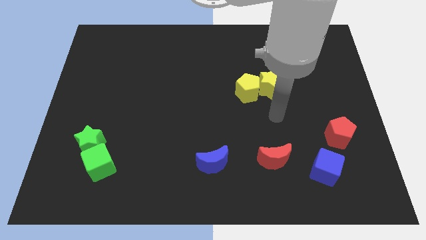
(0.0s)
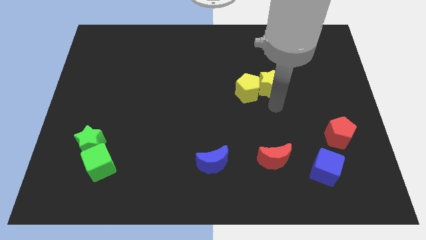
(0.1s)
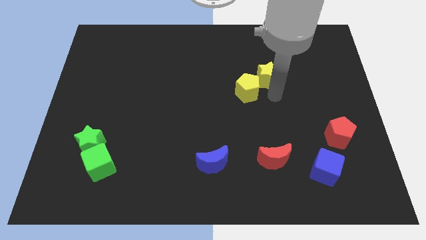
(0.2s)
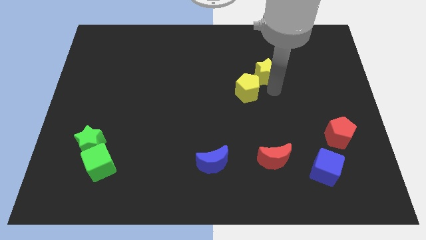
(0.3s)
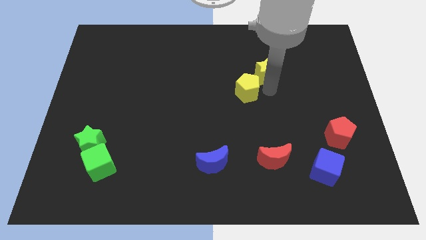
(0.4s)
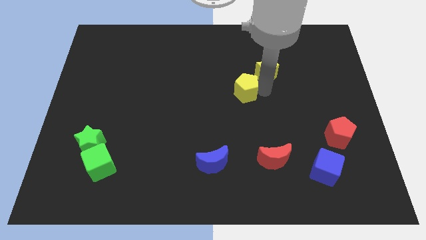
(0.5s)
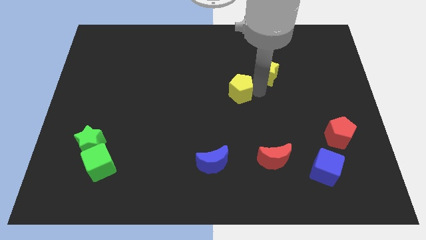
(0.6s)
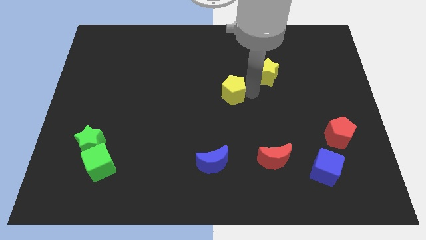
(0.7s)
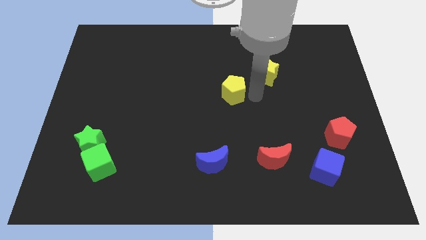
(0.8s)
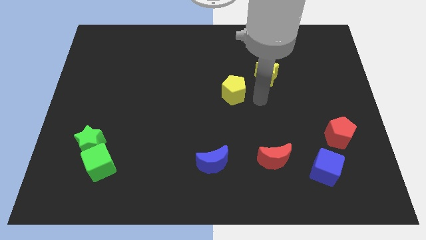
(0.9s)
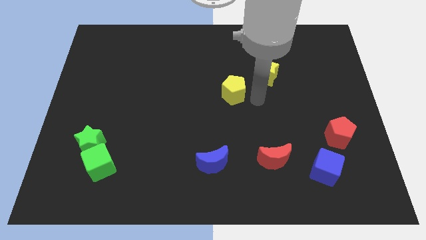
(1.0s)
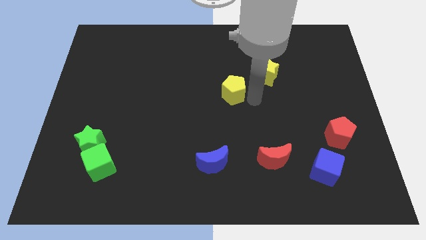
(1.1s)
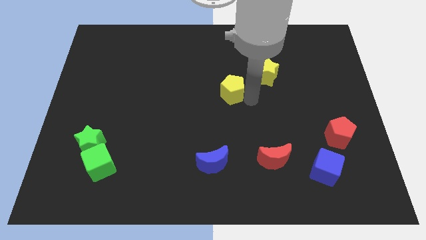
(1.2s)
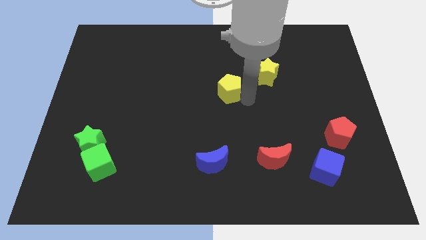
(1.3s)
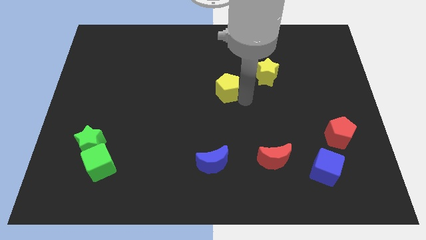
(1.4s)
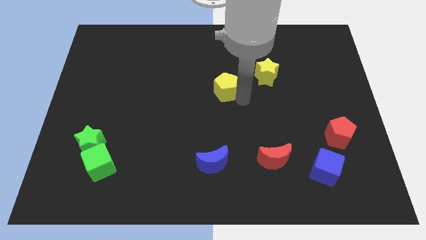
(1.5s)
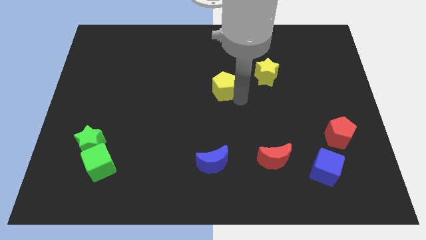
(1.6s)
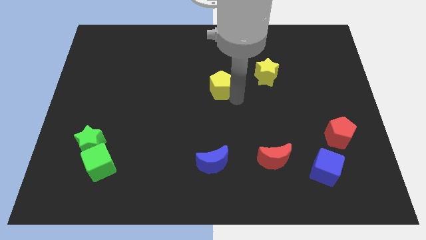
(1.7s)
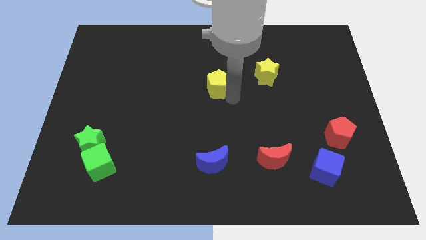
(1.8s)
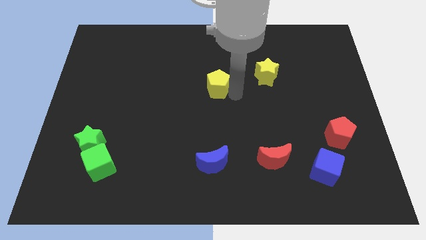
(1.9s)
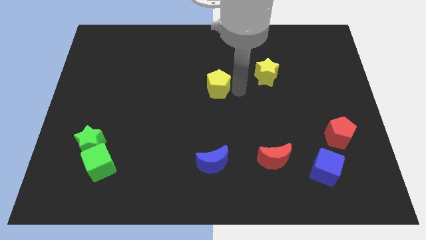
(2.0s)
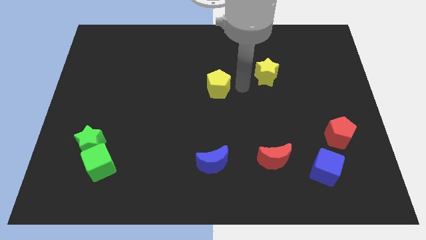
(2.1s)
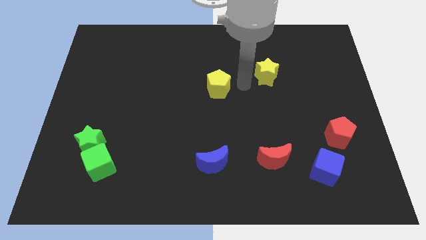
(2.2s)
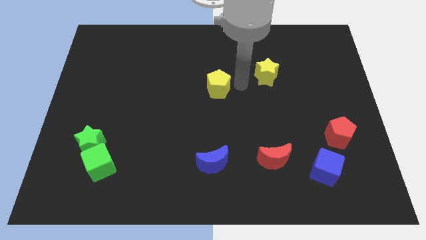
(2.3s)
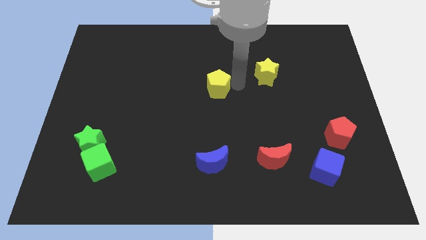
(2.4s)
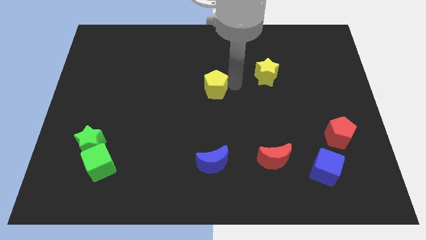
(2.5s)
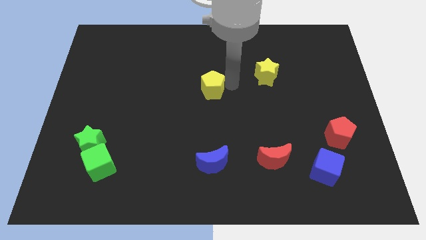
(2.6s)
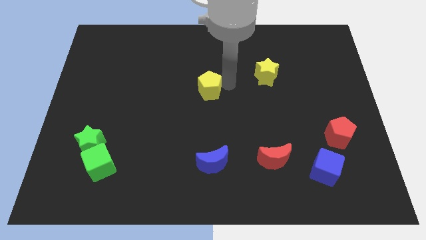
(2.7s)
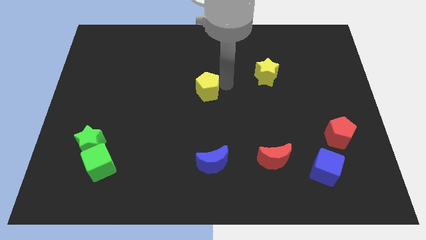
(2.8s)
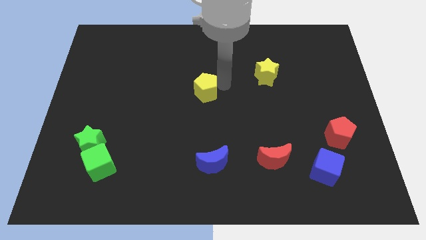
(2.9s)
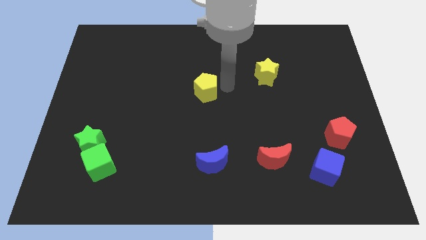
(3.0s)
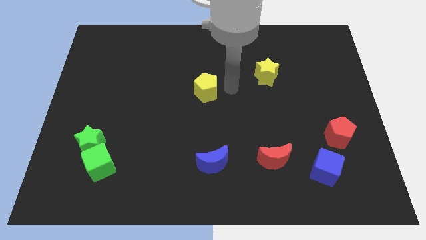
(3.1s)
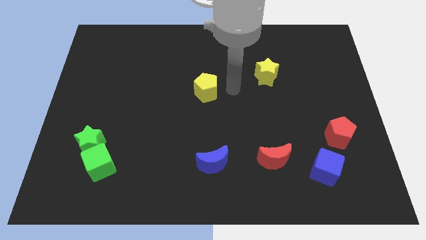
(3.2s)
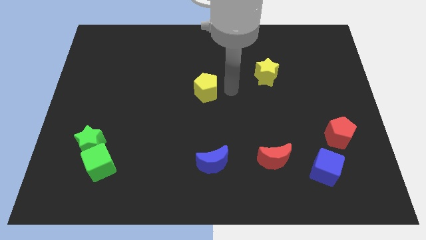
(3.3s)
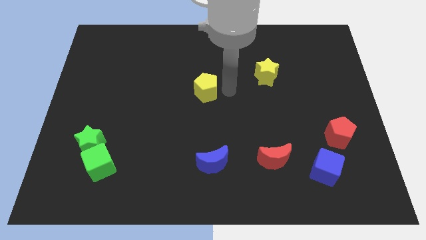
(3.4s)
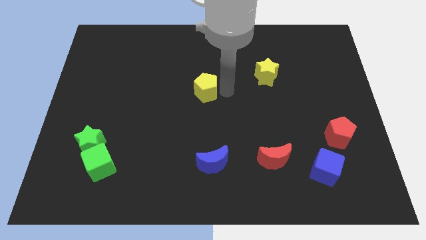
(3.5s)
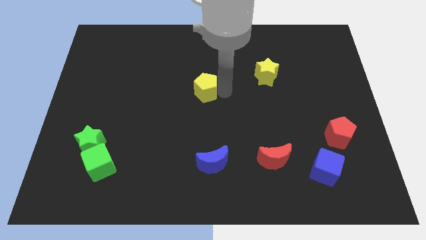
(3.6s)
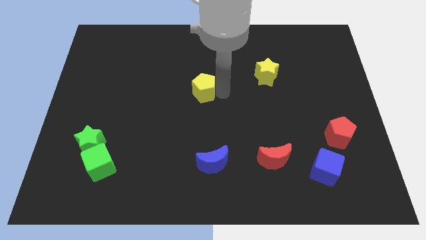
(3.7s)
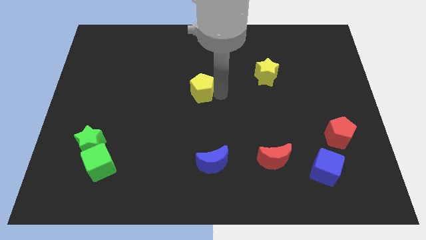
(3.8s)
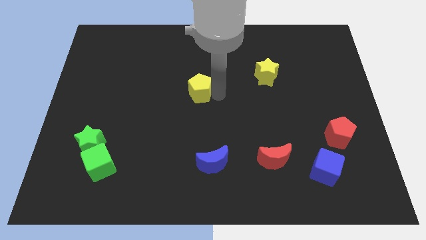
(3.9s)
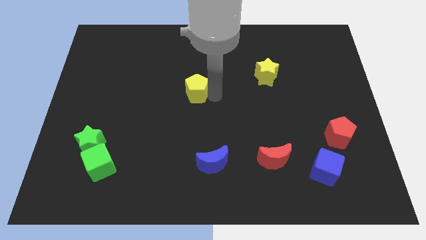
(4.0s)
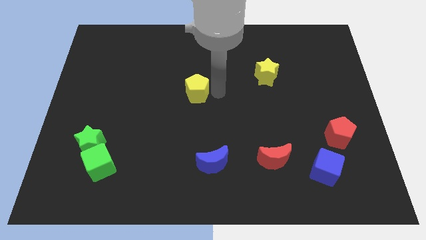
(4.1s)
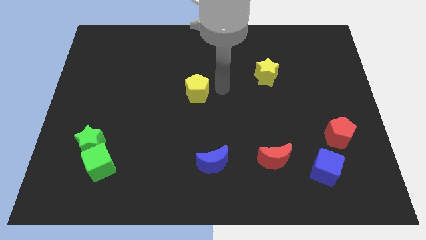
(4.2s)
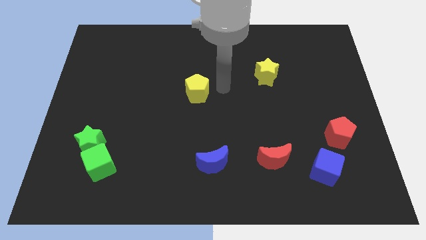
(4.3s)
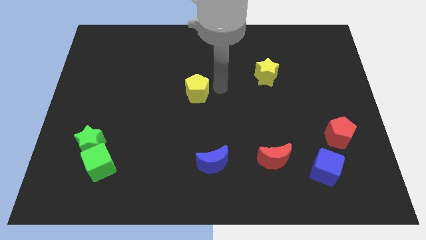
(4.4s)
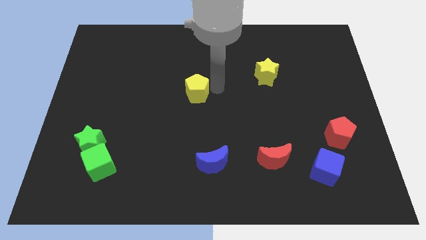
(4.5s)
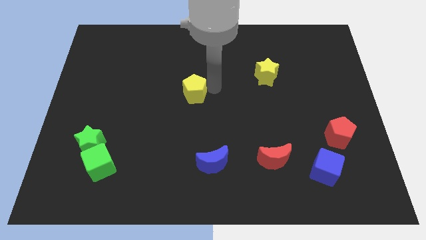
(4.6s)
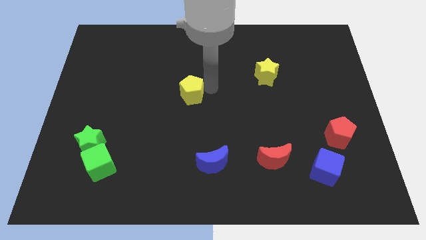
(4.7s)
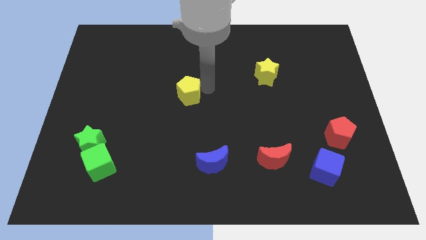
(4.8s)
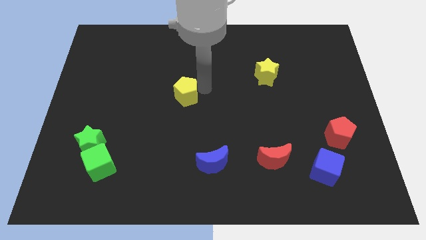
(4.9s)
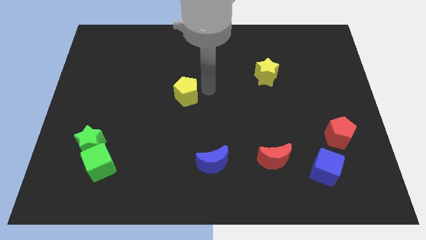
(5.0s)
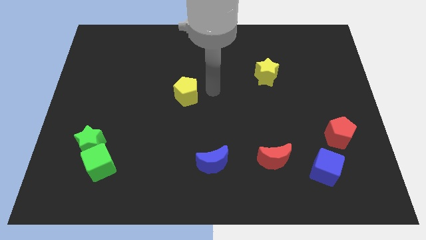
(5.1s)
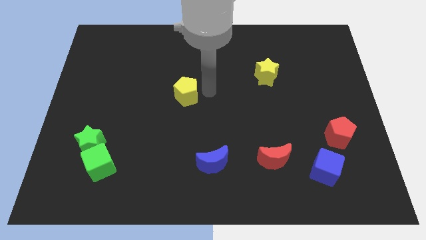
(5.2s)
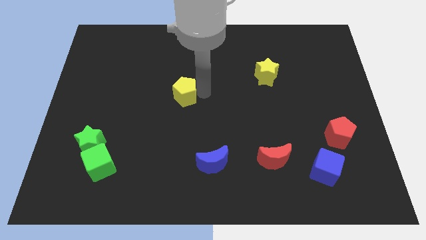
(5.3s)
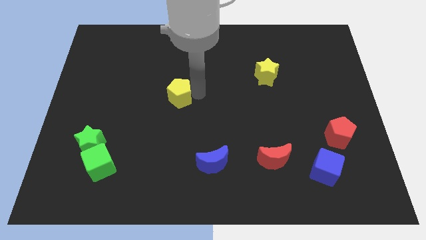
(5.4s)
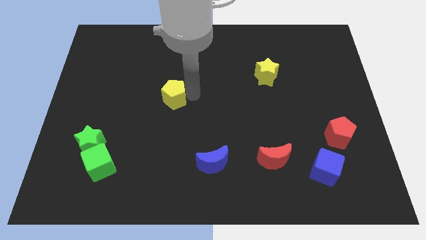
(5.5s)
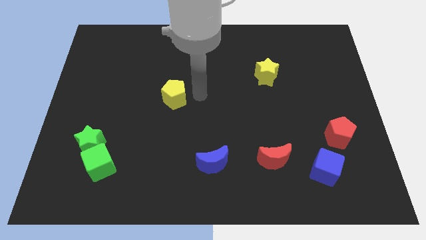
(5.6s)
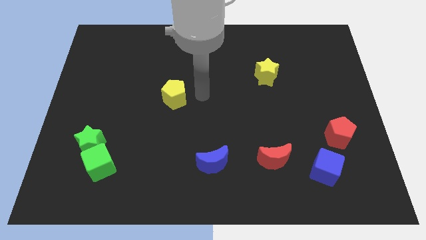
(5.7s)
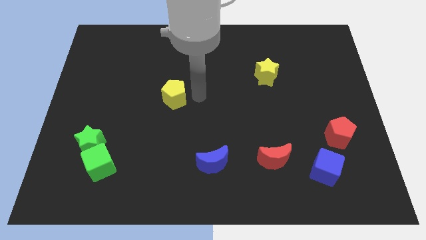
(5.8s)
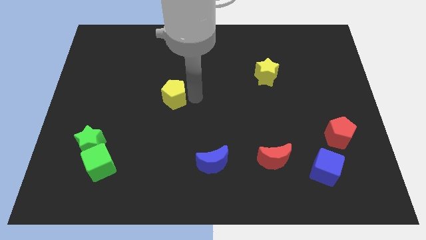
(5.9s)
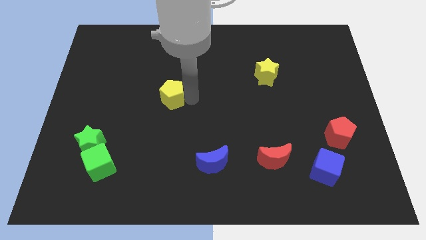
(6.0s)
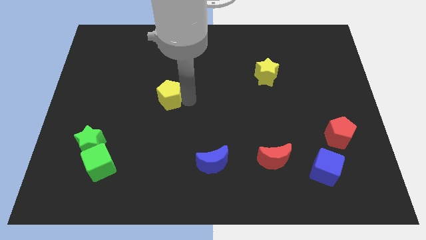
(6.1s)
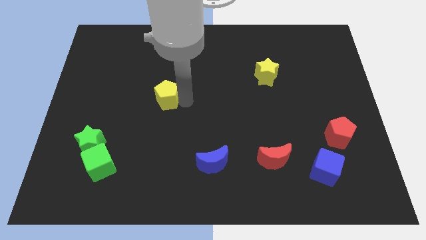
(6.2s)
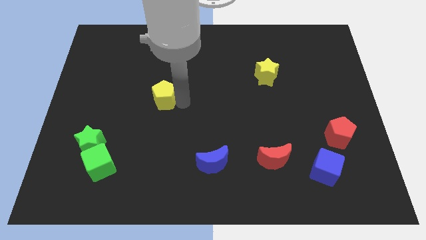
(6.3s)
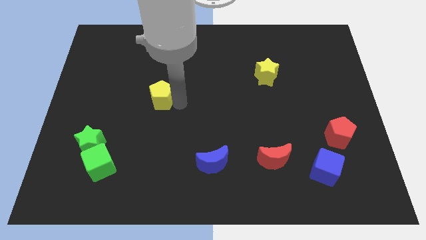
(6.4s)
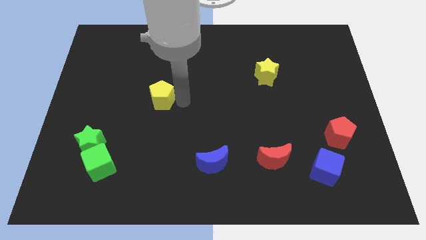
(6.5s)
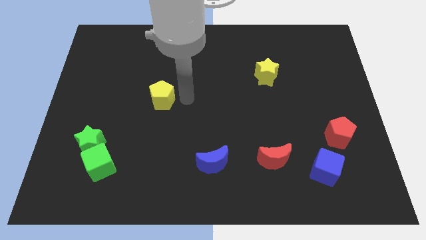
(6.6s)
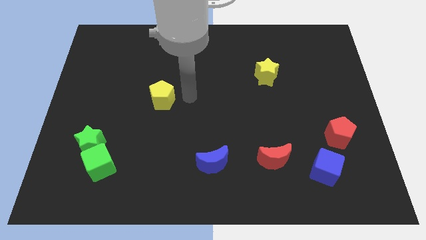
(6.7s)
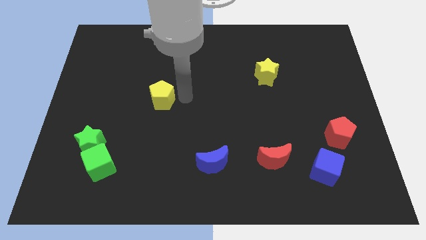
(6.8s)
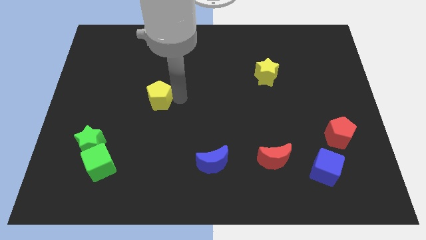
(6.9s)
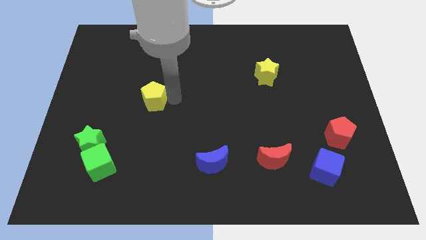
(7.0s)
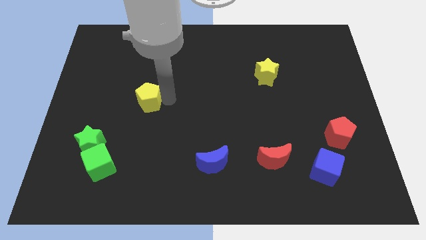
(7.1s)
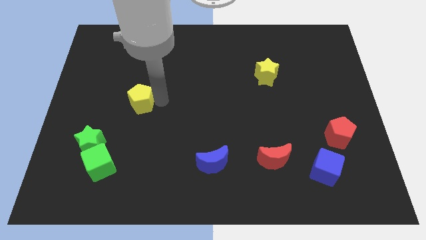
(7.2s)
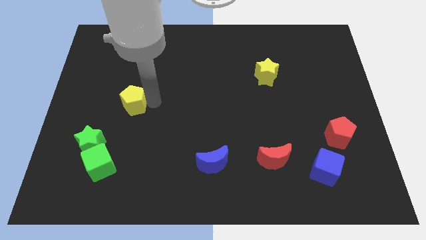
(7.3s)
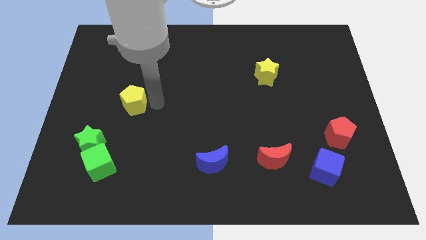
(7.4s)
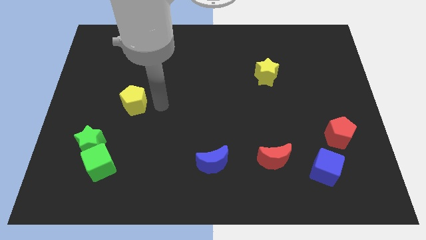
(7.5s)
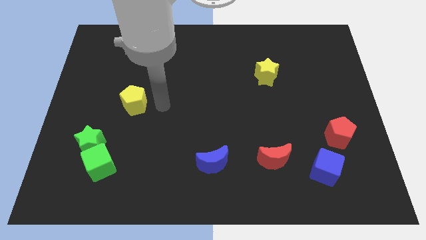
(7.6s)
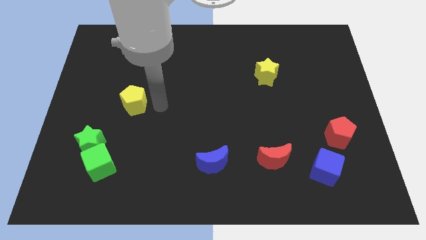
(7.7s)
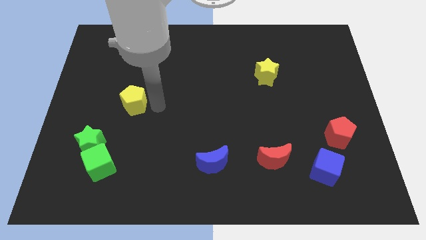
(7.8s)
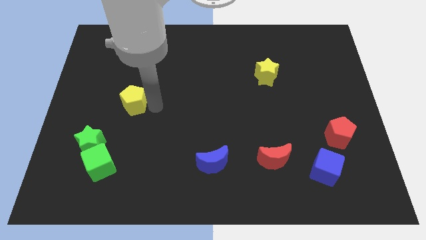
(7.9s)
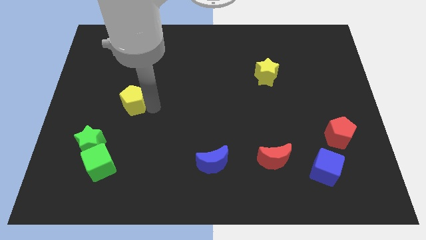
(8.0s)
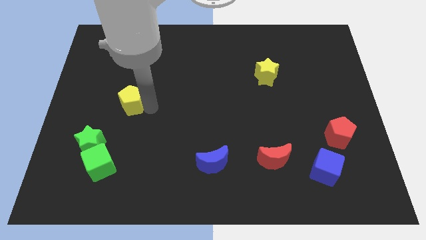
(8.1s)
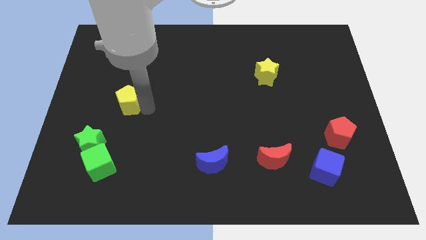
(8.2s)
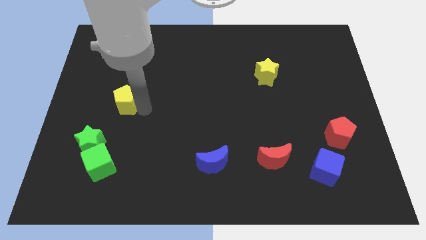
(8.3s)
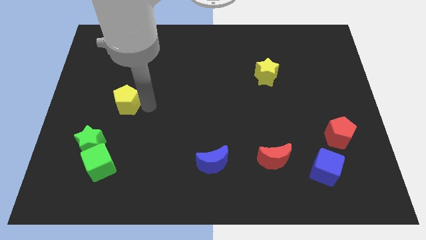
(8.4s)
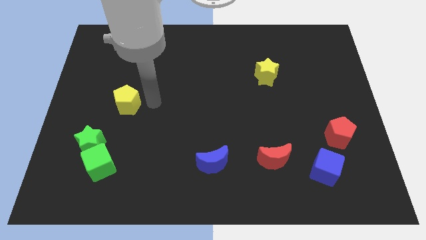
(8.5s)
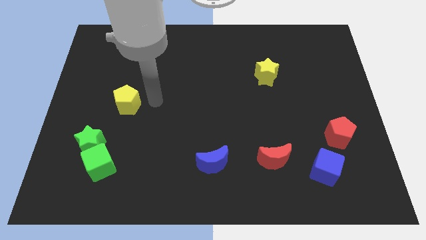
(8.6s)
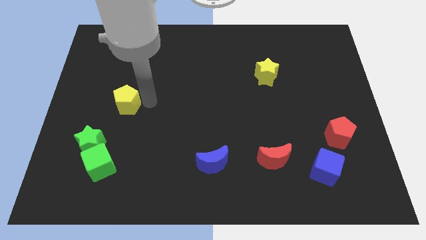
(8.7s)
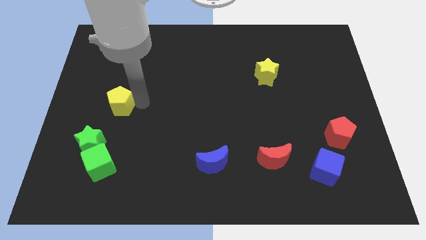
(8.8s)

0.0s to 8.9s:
push the yellow pentagon above the green star
